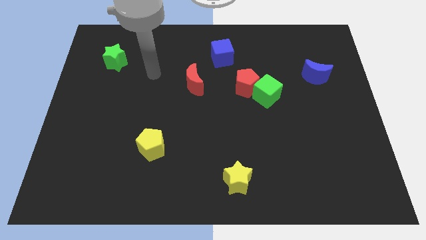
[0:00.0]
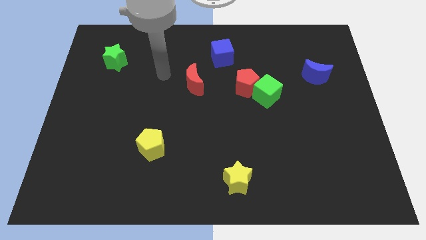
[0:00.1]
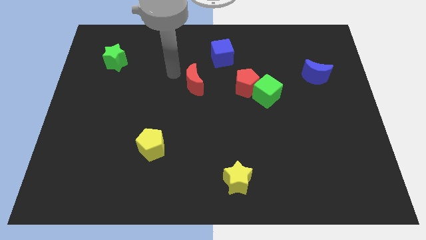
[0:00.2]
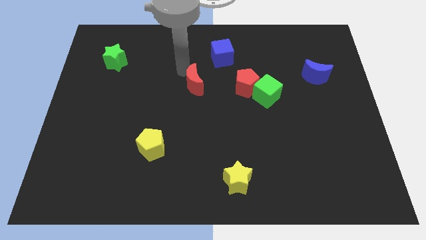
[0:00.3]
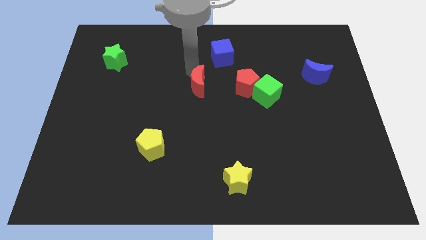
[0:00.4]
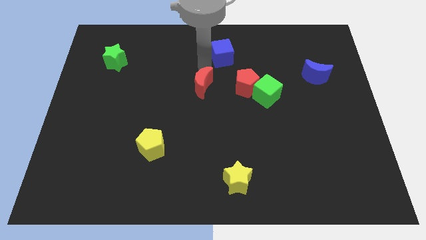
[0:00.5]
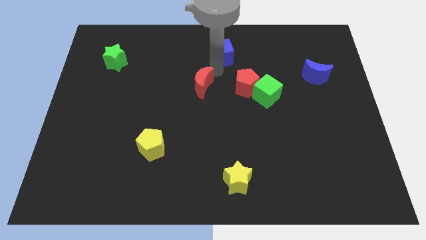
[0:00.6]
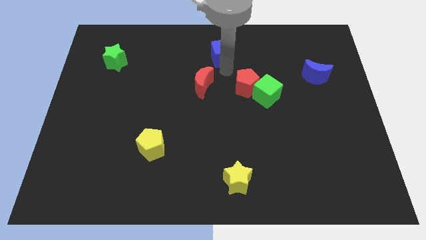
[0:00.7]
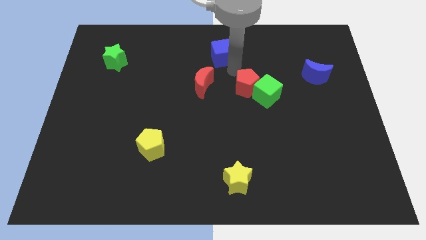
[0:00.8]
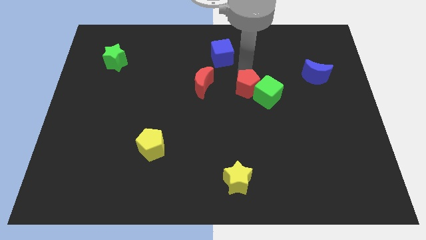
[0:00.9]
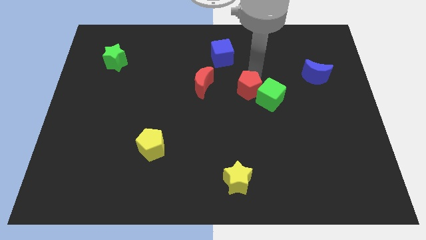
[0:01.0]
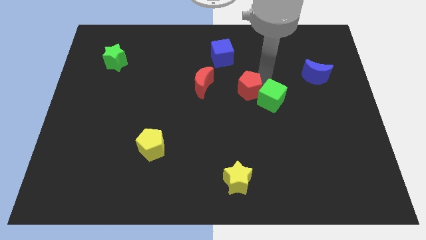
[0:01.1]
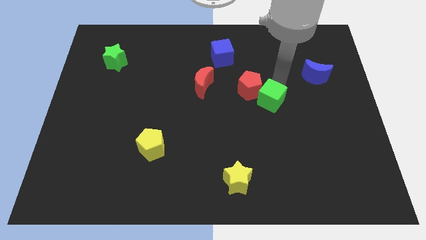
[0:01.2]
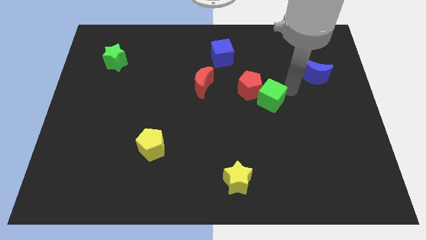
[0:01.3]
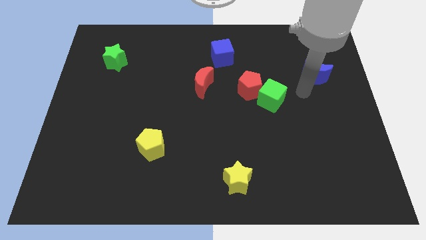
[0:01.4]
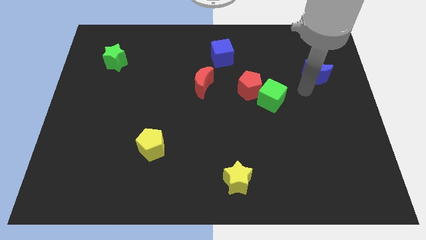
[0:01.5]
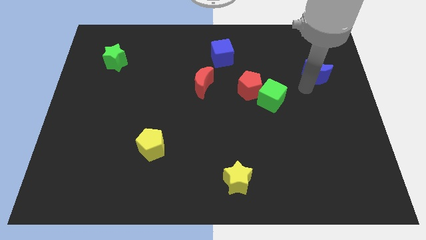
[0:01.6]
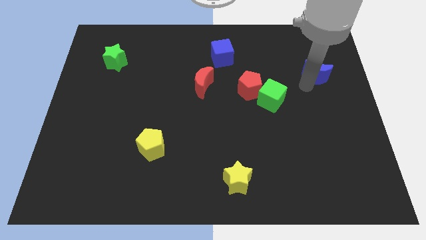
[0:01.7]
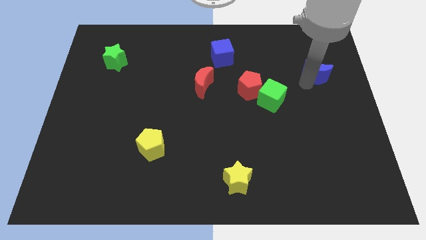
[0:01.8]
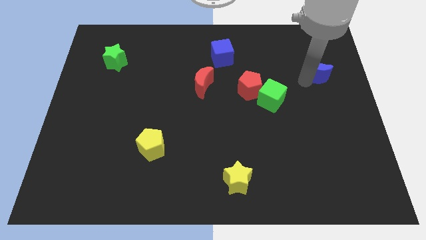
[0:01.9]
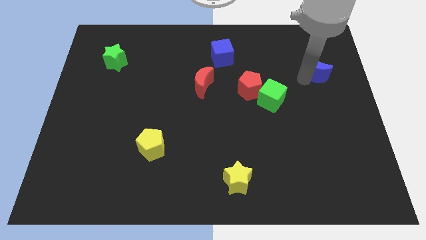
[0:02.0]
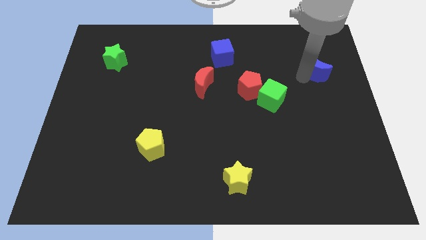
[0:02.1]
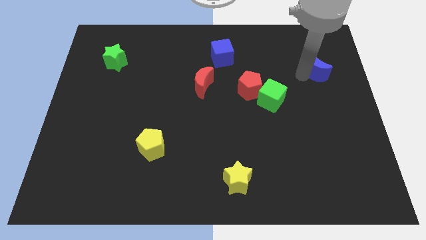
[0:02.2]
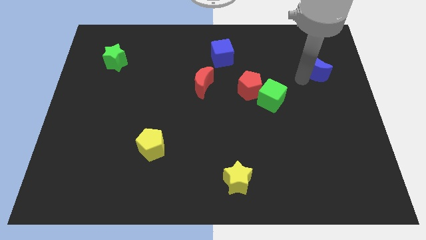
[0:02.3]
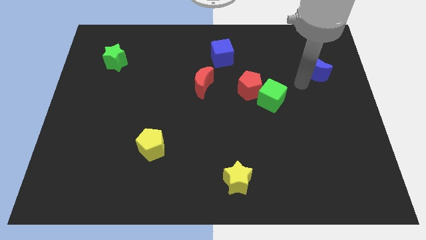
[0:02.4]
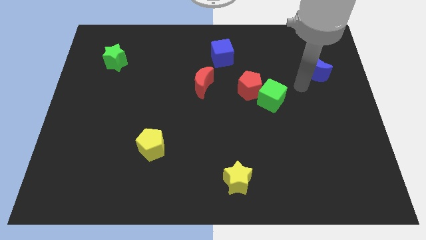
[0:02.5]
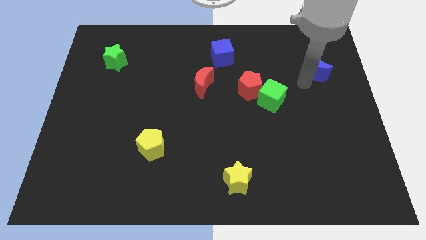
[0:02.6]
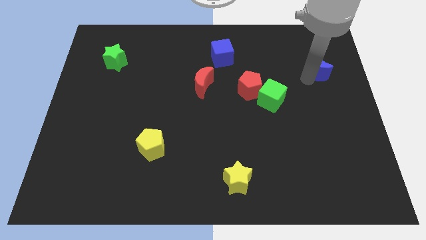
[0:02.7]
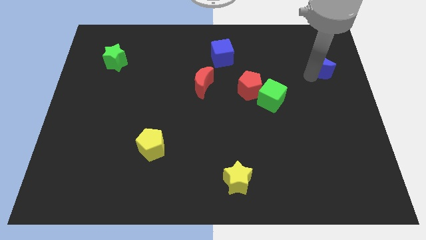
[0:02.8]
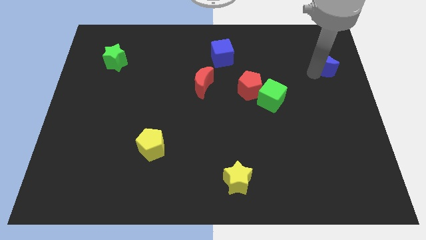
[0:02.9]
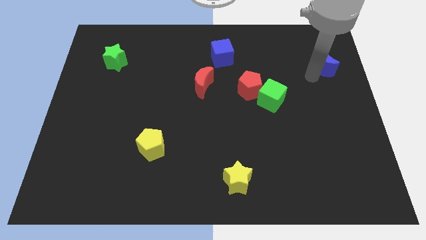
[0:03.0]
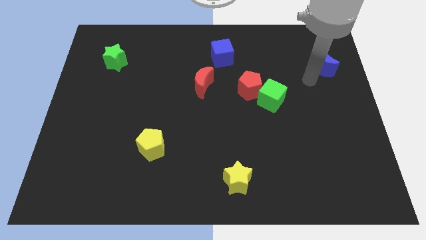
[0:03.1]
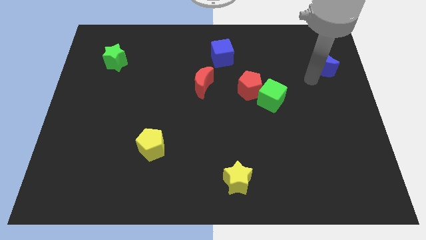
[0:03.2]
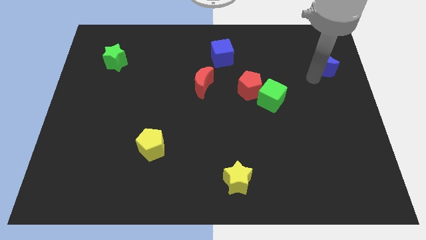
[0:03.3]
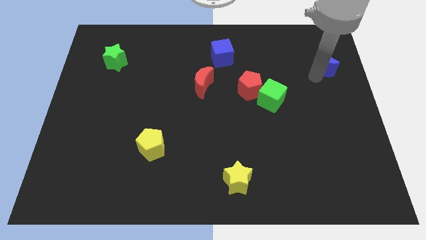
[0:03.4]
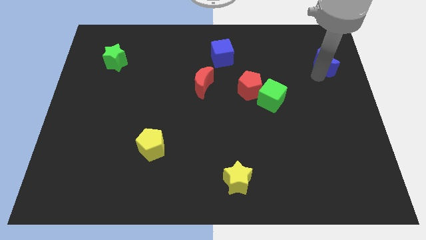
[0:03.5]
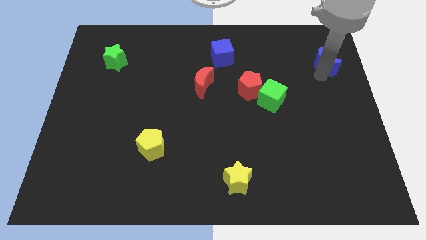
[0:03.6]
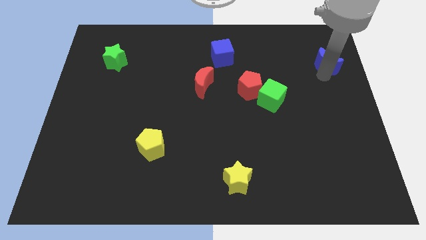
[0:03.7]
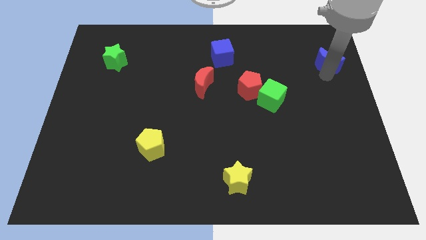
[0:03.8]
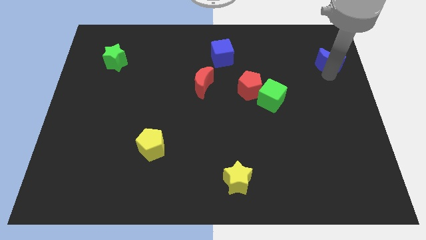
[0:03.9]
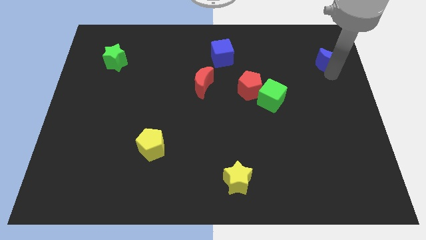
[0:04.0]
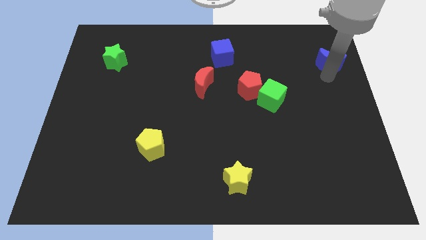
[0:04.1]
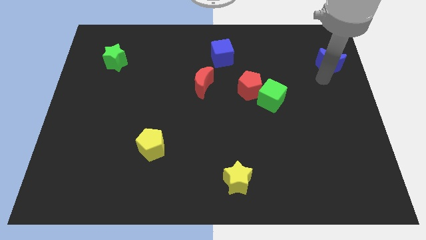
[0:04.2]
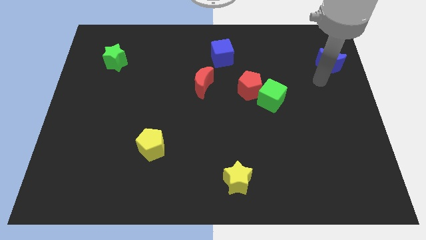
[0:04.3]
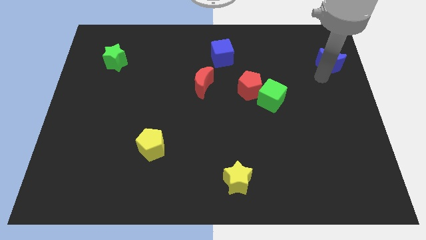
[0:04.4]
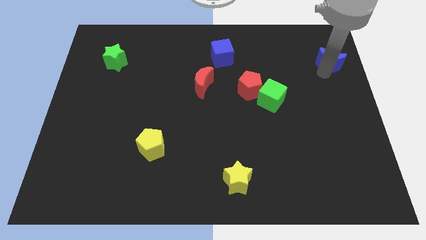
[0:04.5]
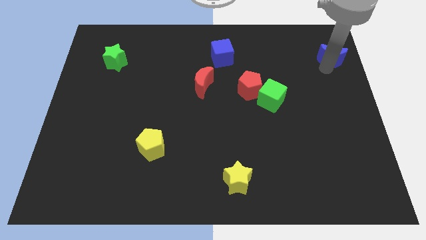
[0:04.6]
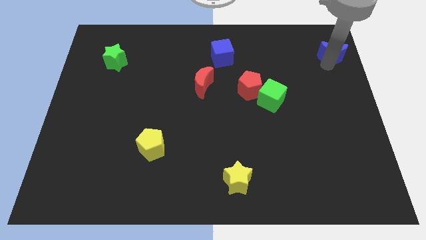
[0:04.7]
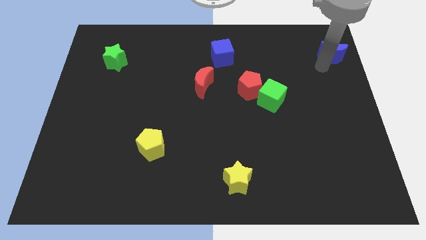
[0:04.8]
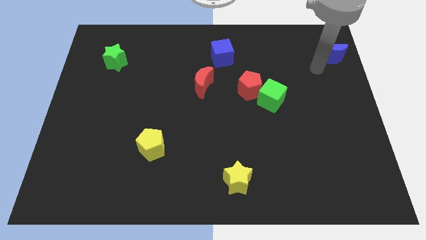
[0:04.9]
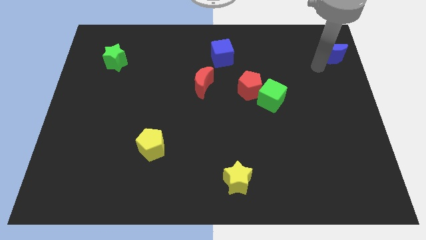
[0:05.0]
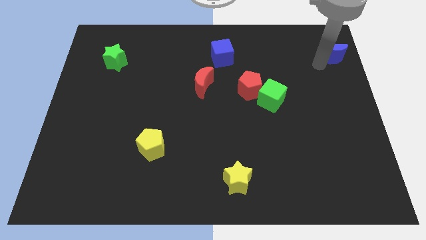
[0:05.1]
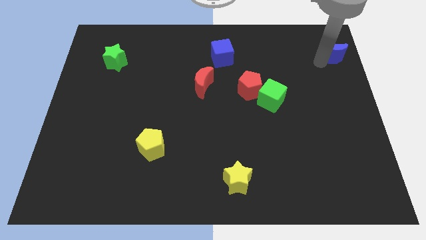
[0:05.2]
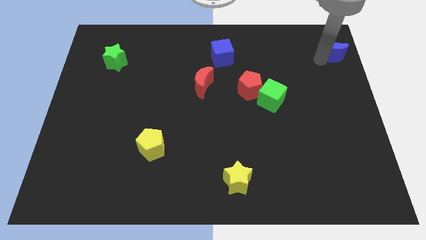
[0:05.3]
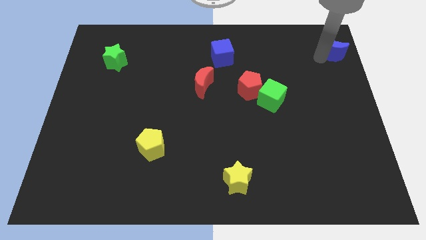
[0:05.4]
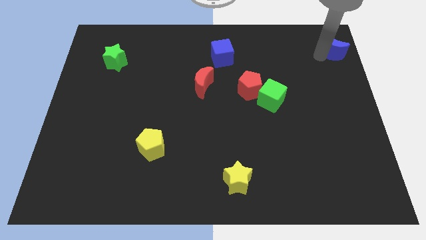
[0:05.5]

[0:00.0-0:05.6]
slide the blue moon to the top right corner
